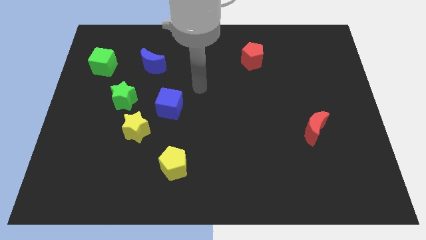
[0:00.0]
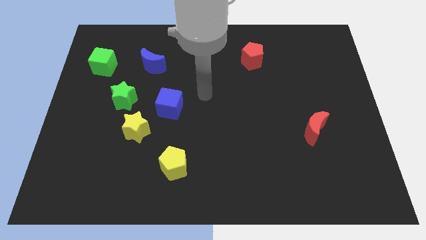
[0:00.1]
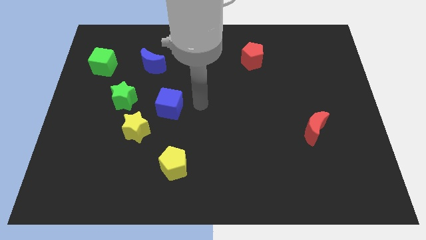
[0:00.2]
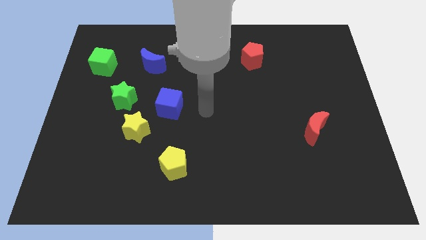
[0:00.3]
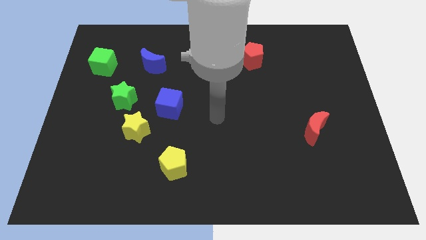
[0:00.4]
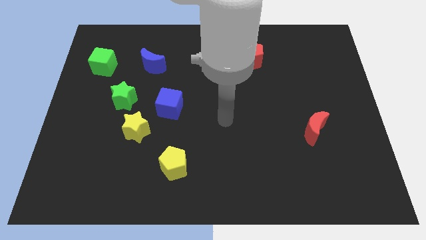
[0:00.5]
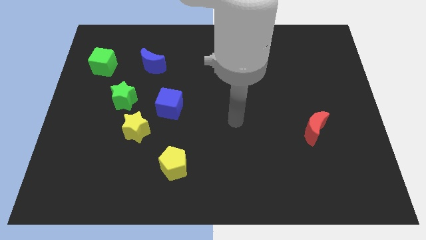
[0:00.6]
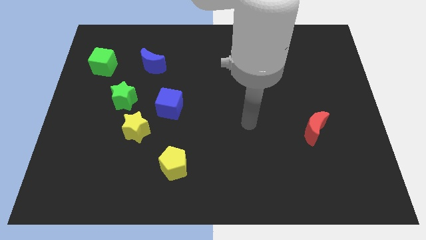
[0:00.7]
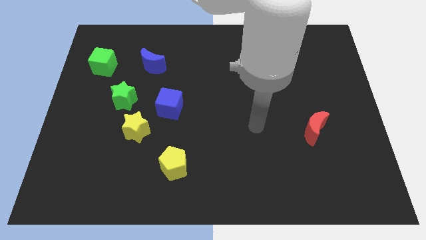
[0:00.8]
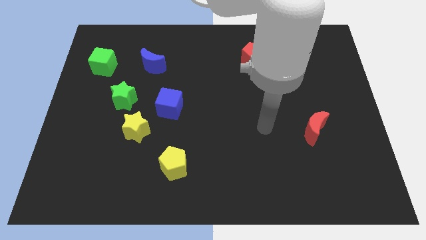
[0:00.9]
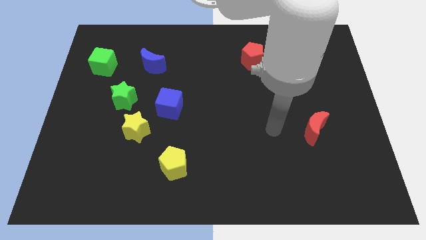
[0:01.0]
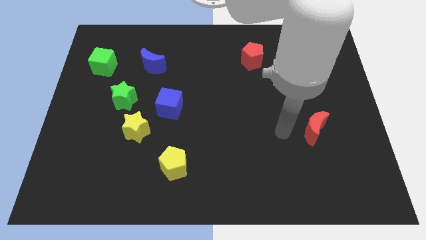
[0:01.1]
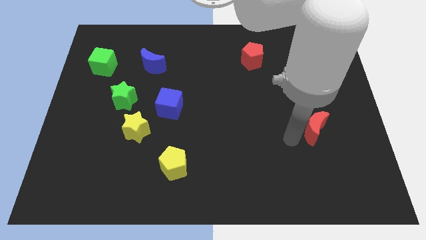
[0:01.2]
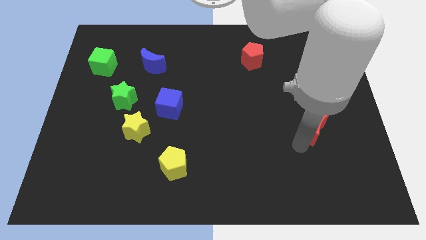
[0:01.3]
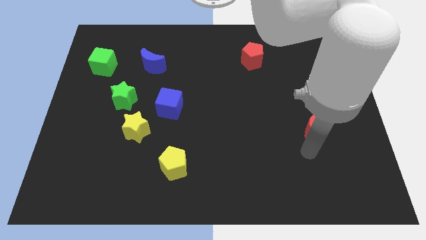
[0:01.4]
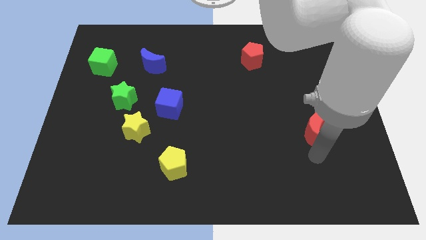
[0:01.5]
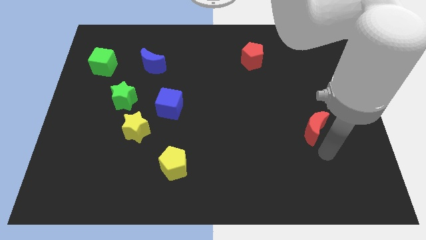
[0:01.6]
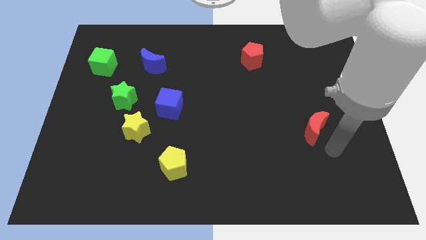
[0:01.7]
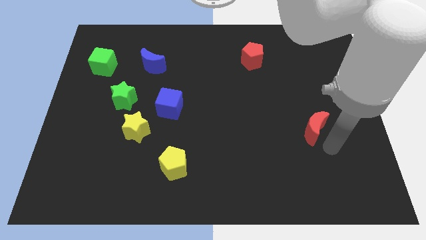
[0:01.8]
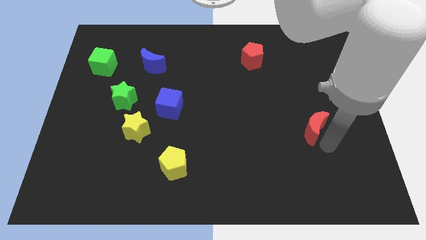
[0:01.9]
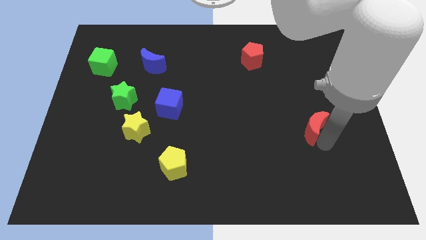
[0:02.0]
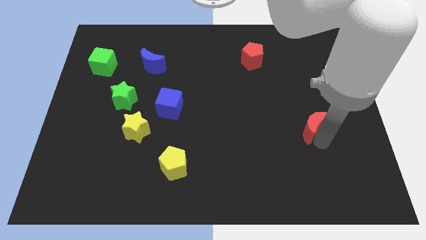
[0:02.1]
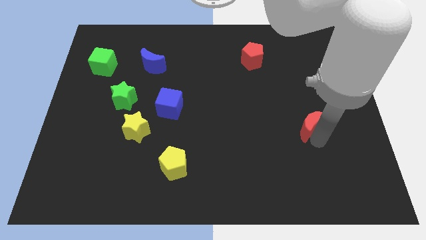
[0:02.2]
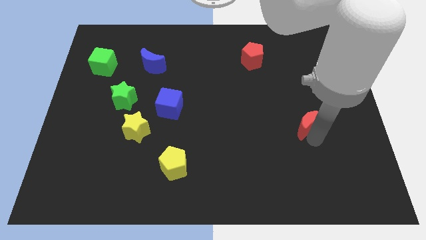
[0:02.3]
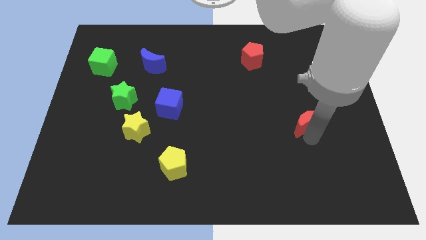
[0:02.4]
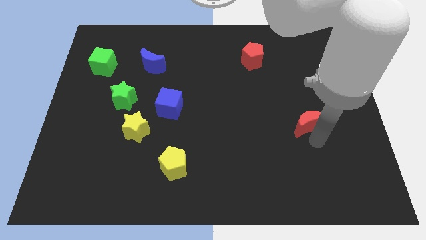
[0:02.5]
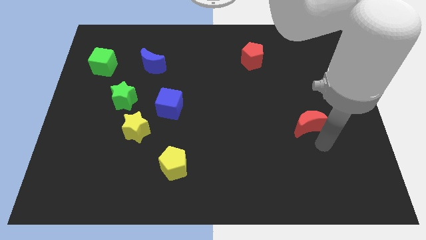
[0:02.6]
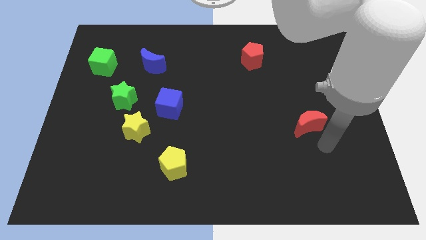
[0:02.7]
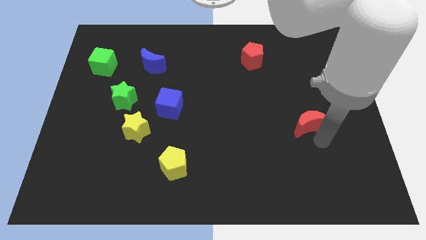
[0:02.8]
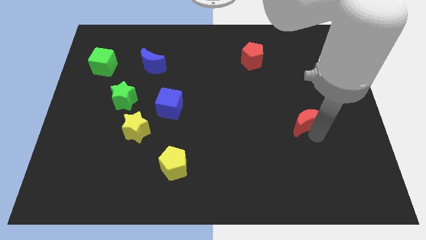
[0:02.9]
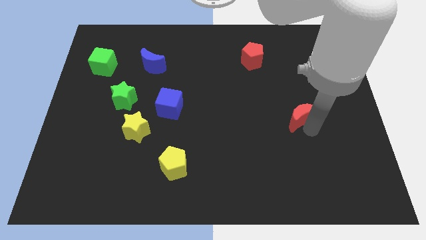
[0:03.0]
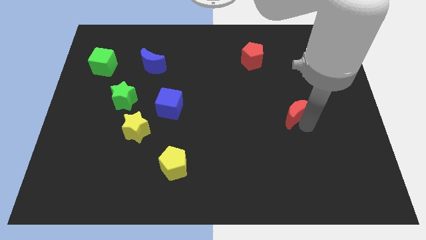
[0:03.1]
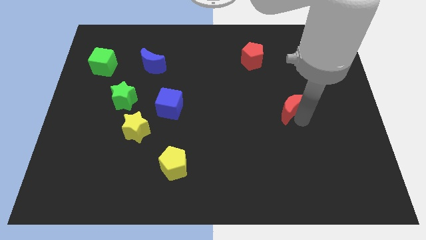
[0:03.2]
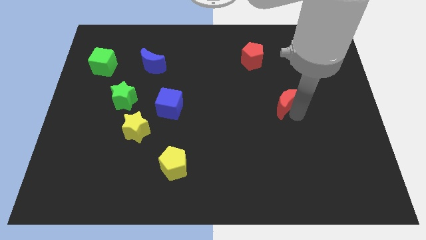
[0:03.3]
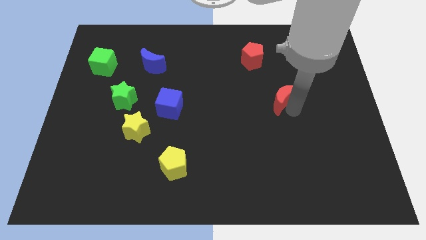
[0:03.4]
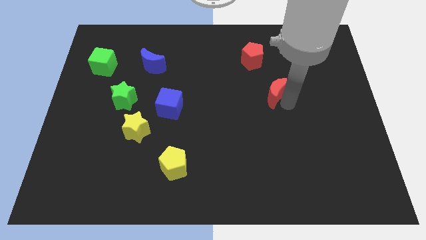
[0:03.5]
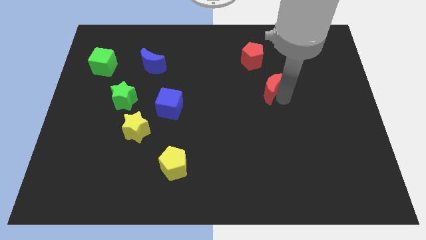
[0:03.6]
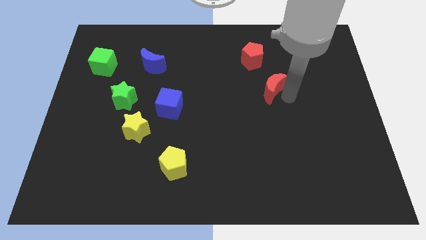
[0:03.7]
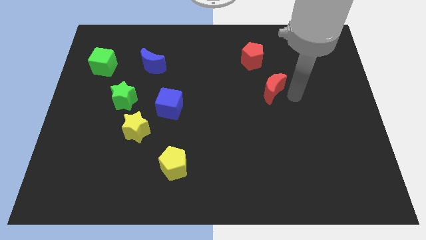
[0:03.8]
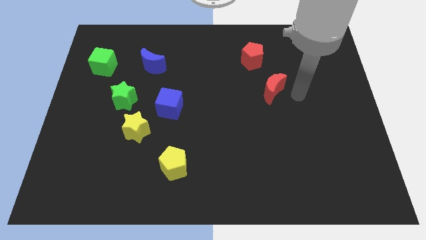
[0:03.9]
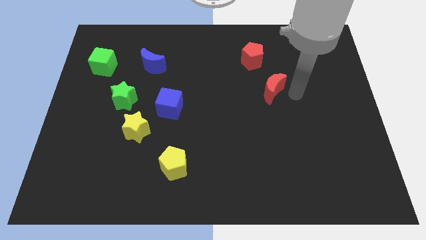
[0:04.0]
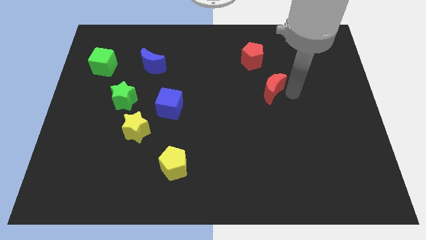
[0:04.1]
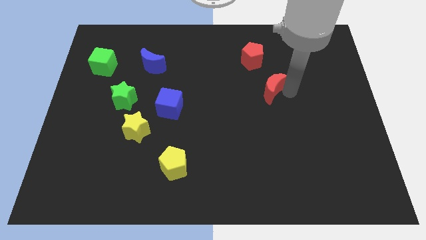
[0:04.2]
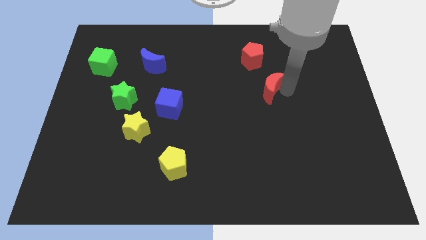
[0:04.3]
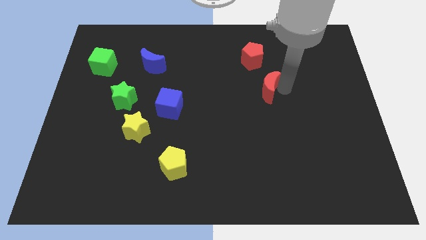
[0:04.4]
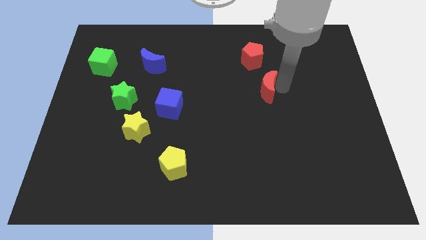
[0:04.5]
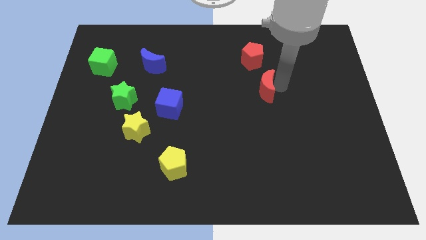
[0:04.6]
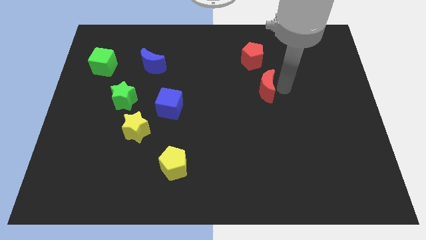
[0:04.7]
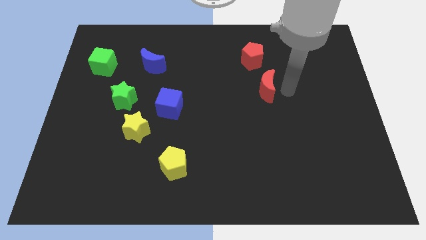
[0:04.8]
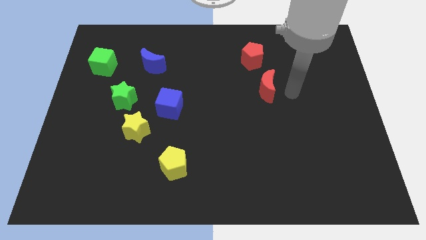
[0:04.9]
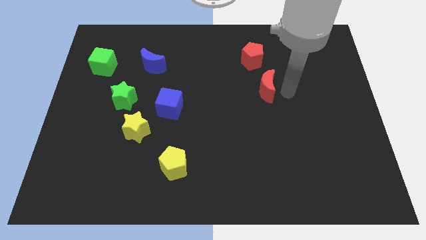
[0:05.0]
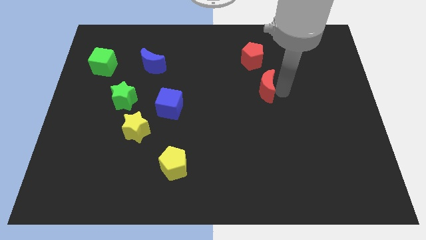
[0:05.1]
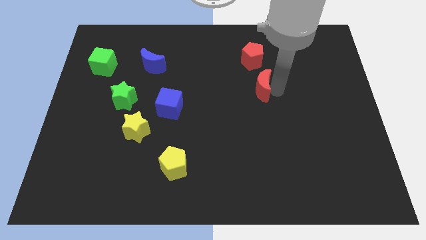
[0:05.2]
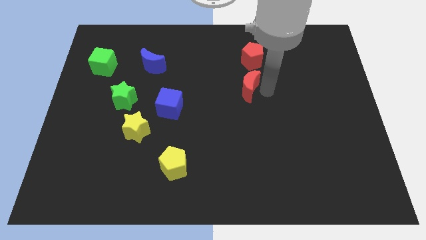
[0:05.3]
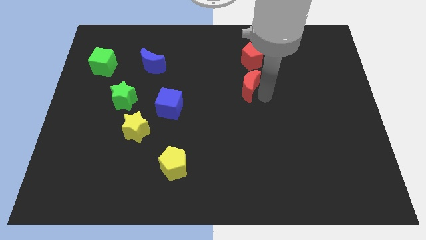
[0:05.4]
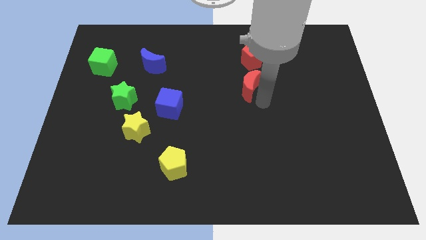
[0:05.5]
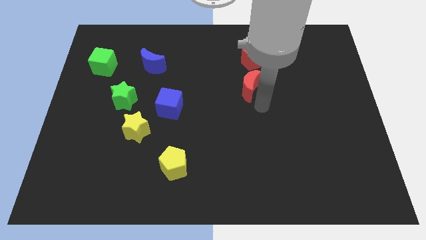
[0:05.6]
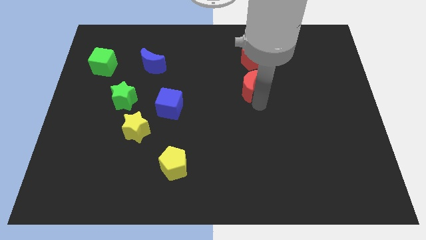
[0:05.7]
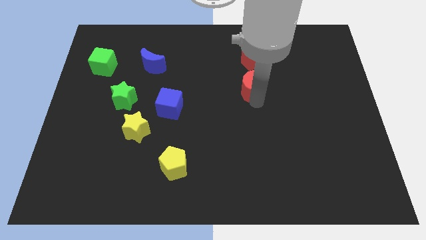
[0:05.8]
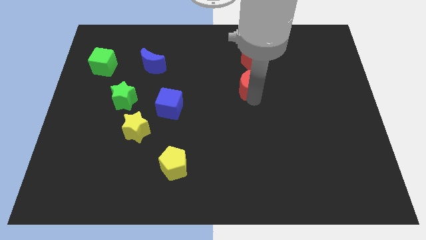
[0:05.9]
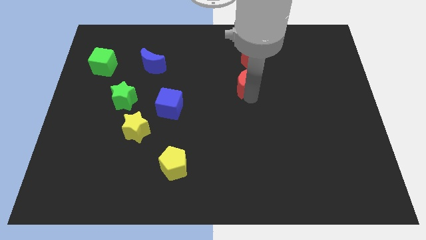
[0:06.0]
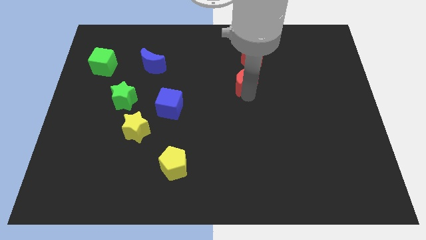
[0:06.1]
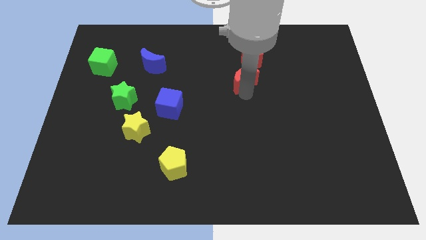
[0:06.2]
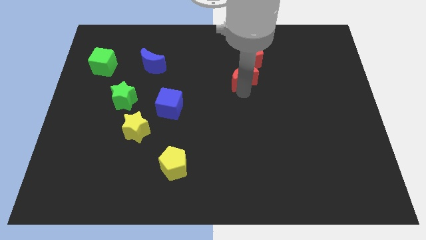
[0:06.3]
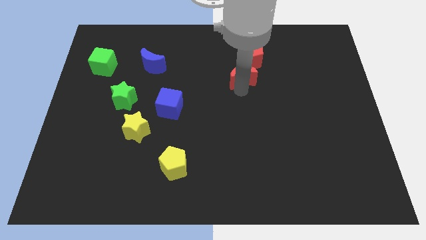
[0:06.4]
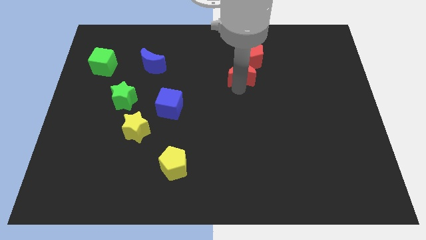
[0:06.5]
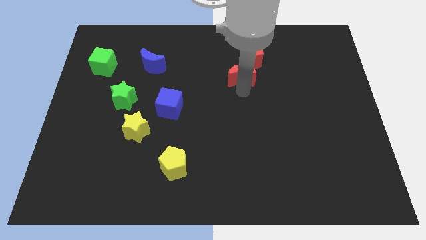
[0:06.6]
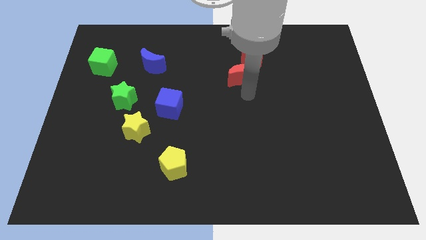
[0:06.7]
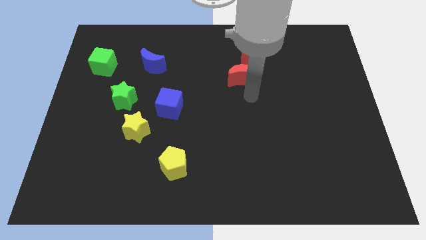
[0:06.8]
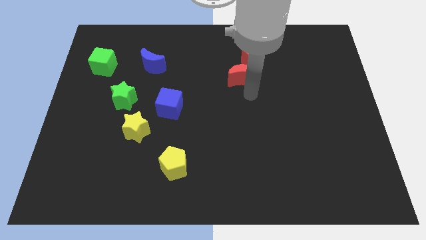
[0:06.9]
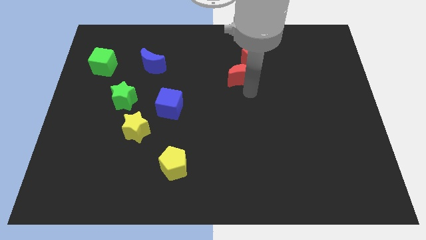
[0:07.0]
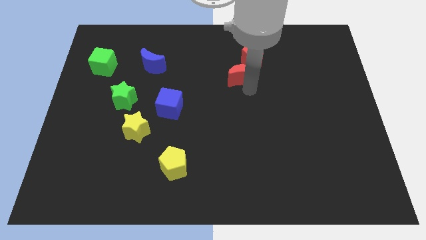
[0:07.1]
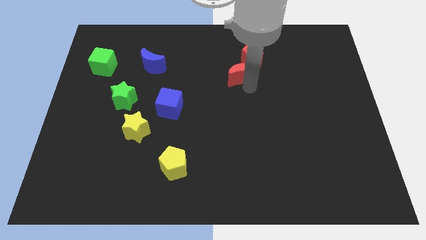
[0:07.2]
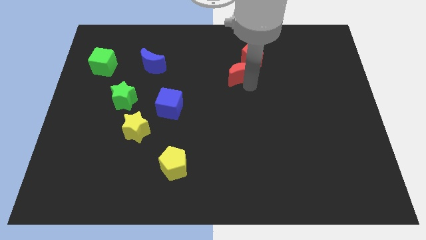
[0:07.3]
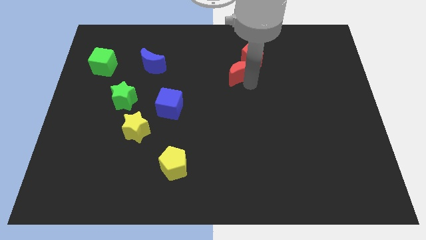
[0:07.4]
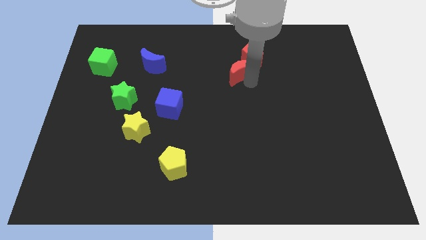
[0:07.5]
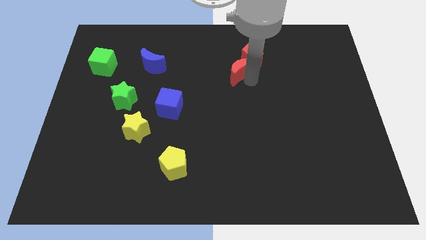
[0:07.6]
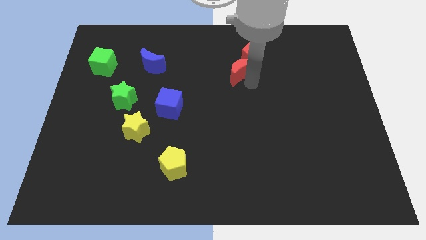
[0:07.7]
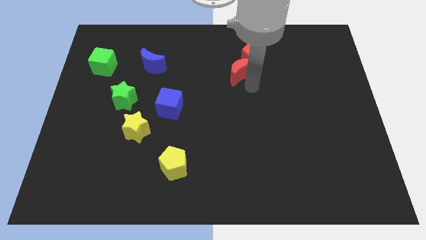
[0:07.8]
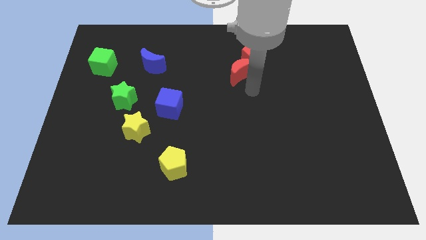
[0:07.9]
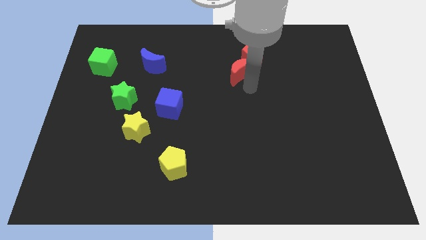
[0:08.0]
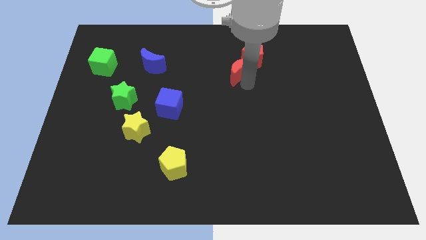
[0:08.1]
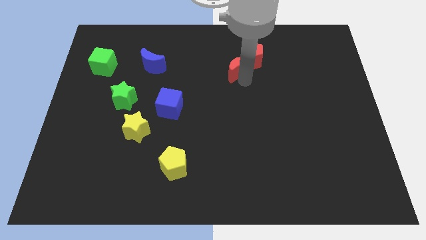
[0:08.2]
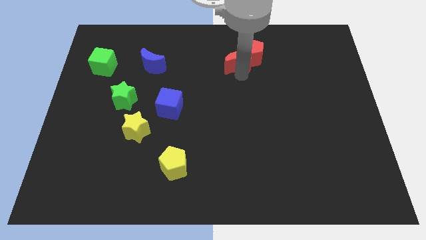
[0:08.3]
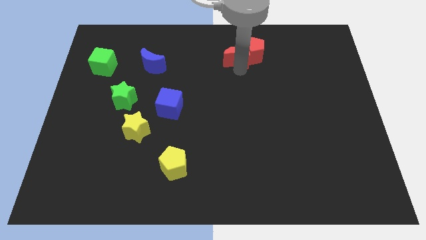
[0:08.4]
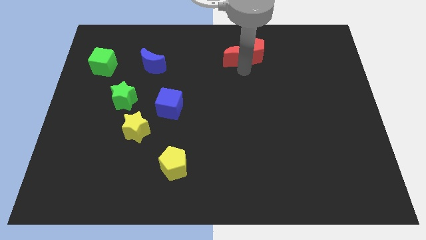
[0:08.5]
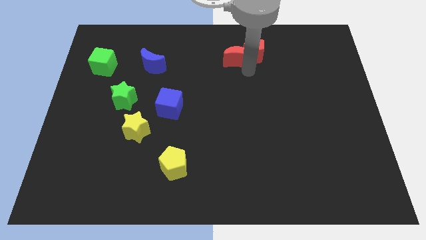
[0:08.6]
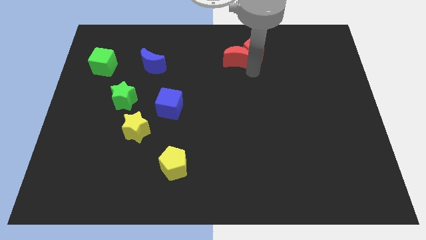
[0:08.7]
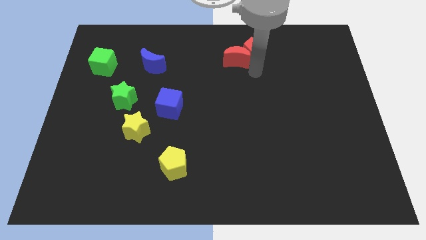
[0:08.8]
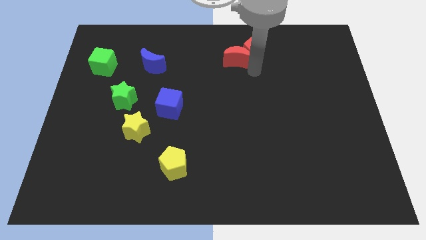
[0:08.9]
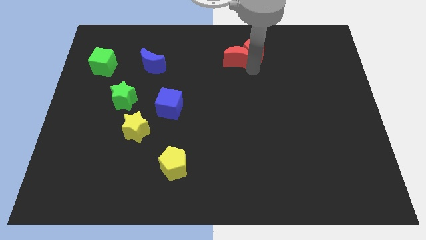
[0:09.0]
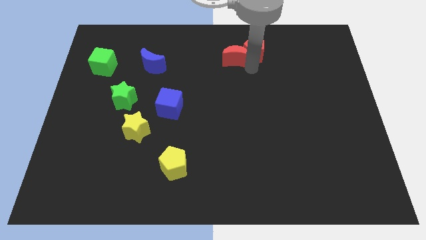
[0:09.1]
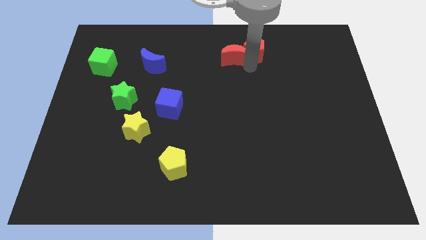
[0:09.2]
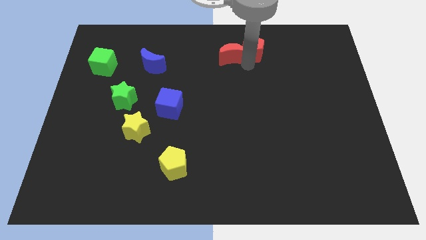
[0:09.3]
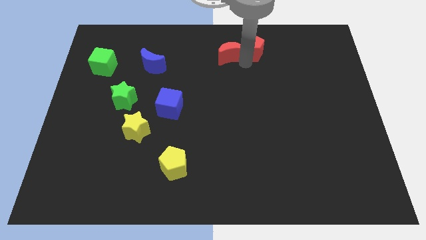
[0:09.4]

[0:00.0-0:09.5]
push the red moon to the towards your base
